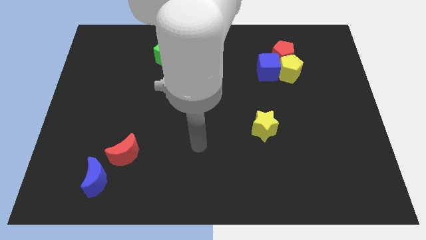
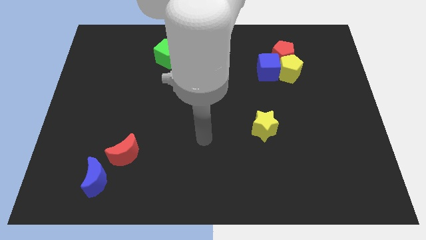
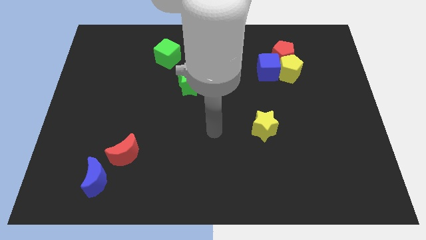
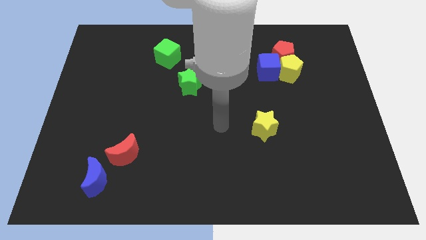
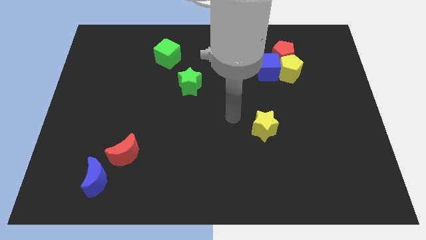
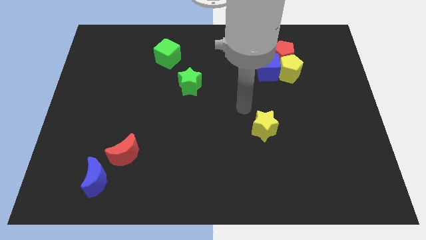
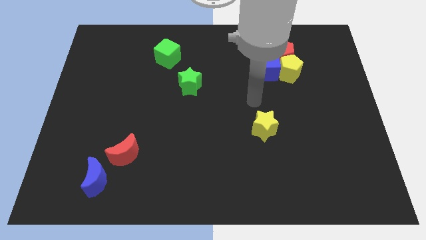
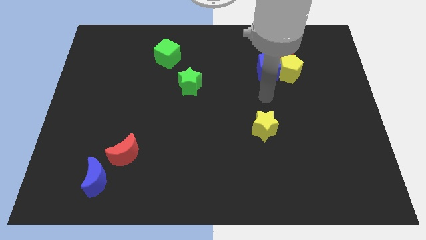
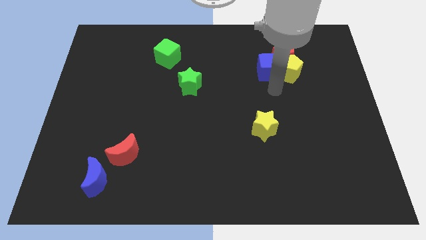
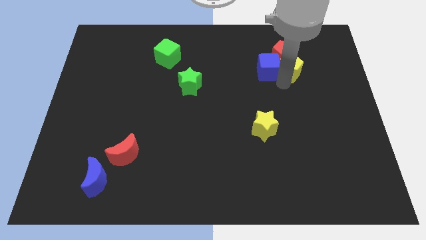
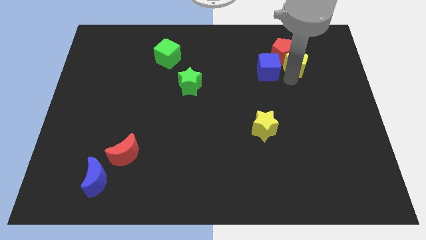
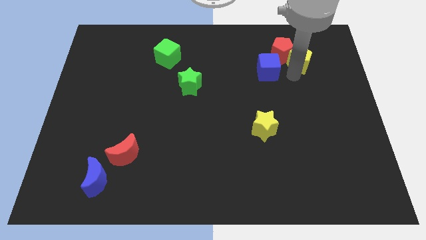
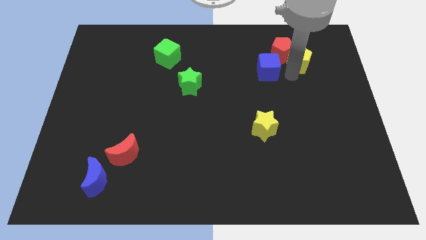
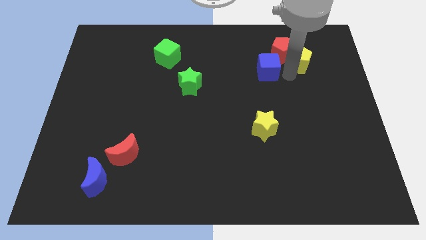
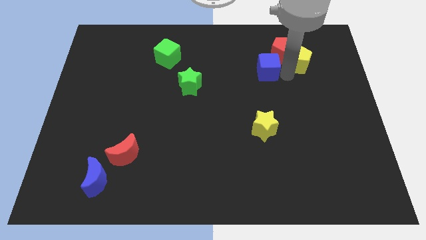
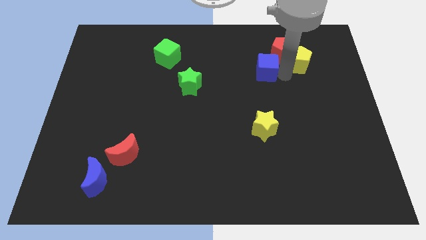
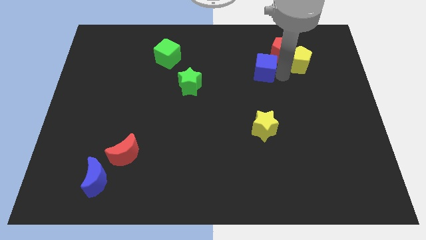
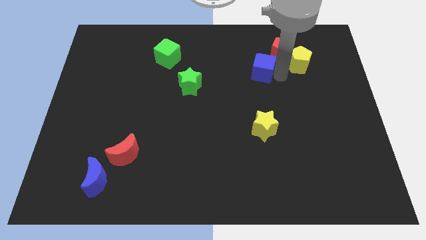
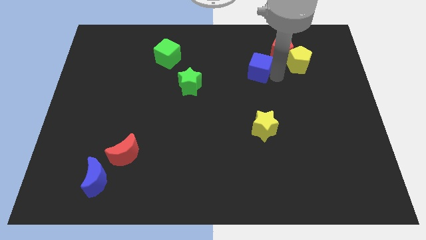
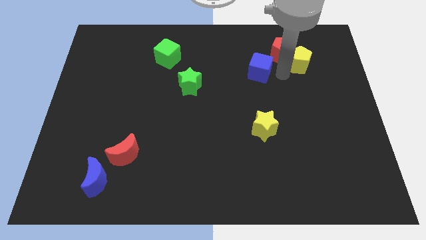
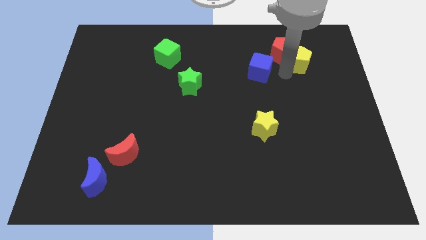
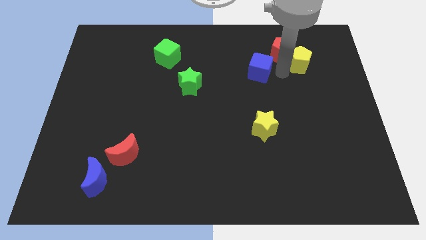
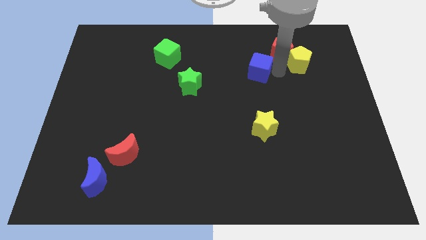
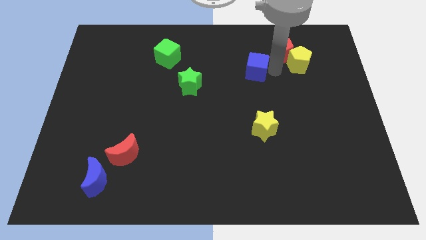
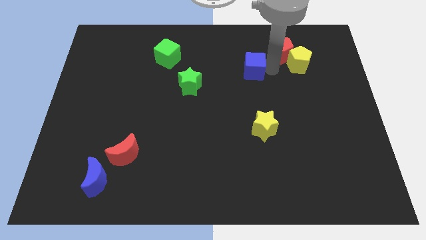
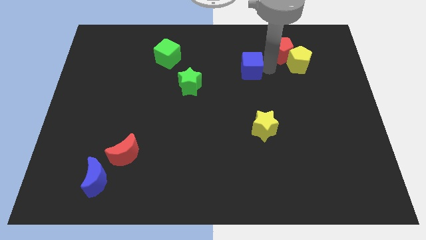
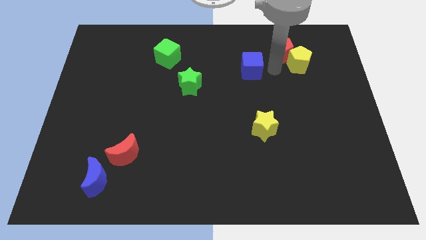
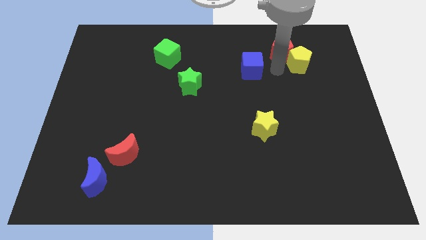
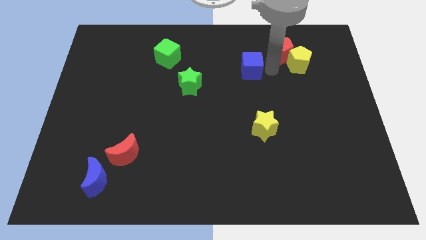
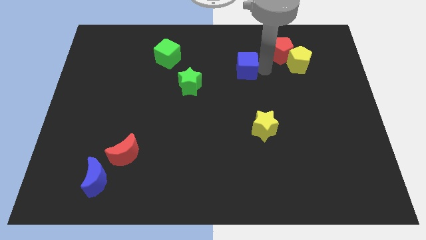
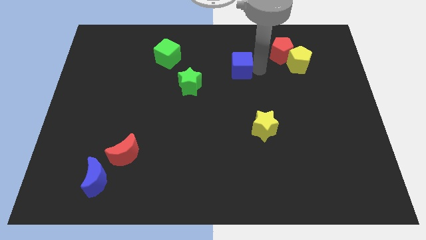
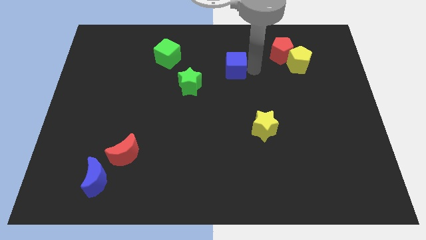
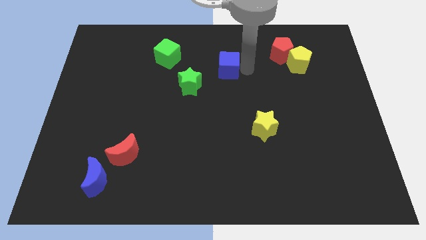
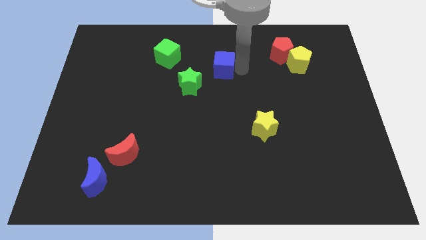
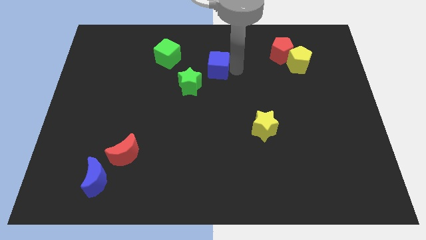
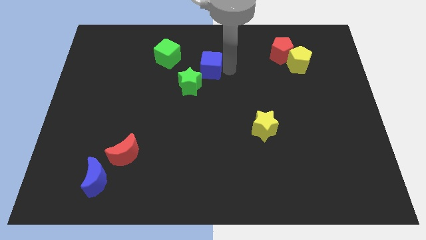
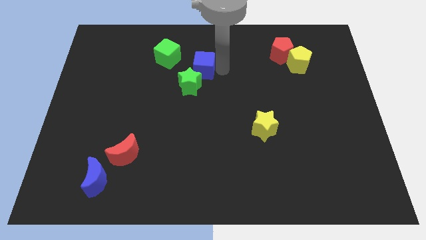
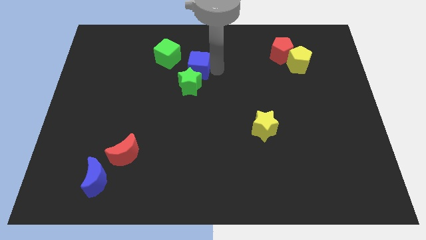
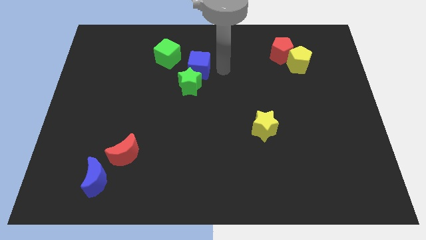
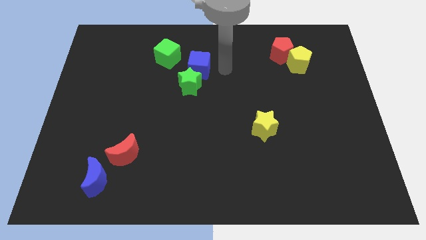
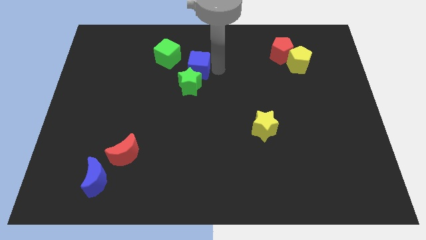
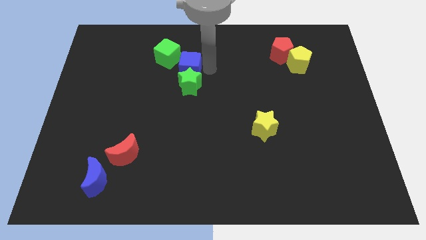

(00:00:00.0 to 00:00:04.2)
move the blue cube left

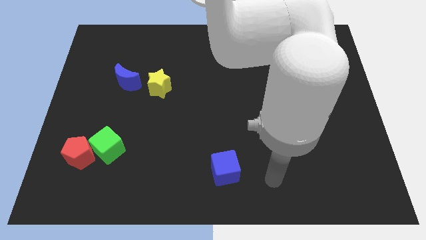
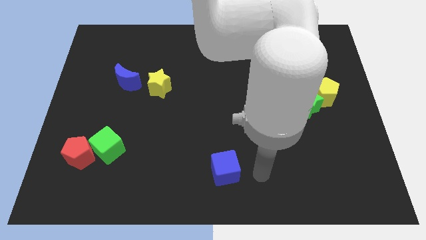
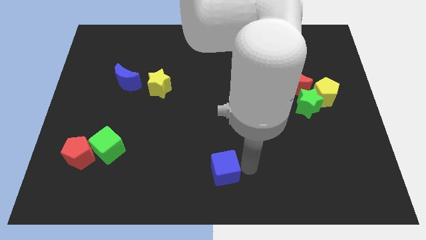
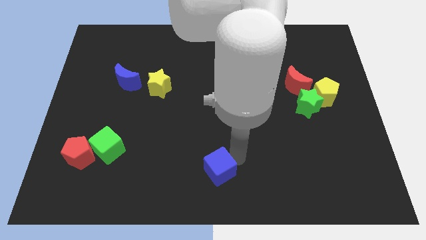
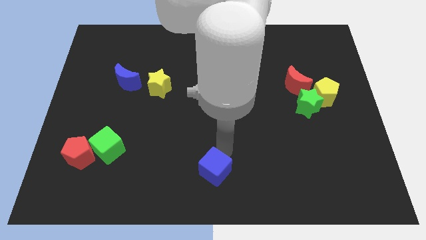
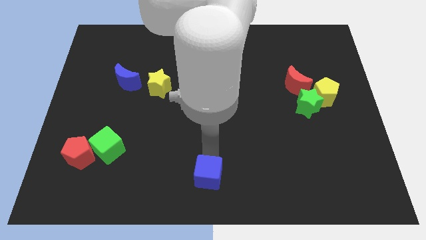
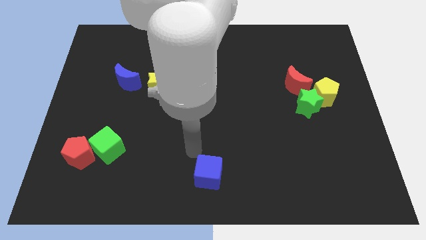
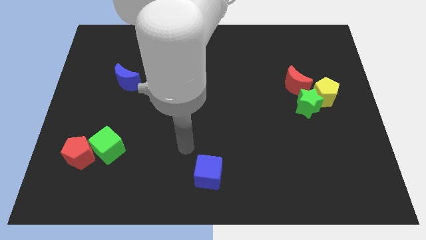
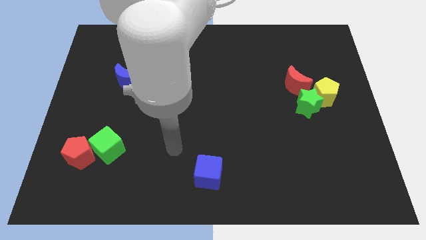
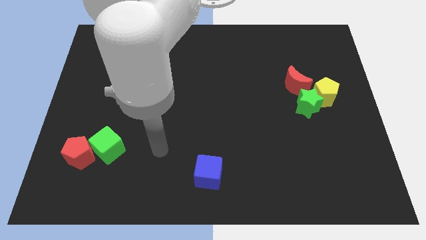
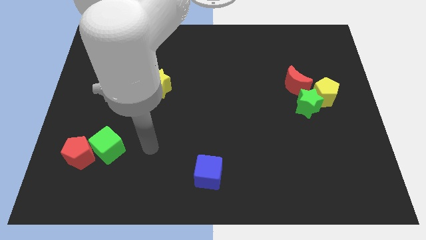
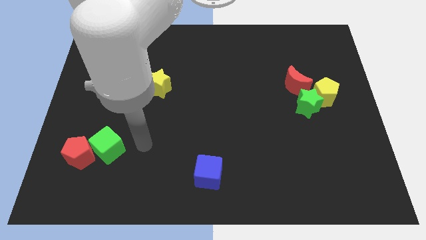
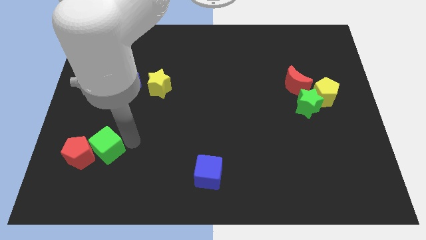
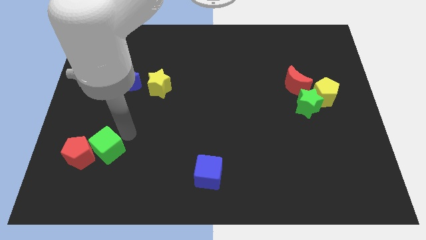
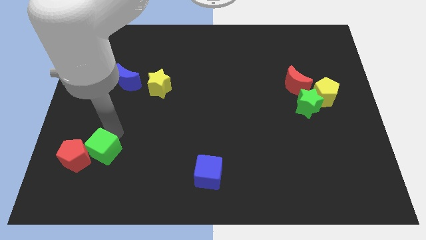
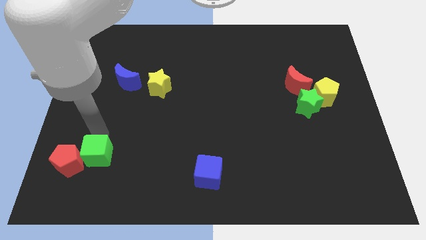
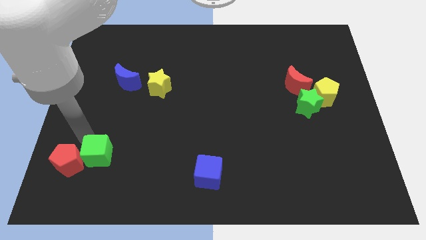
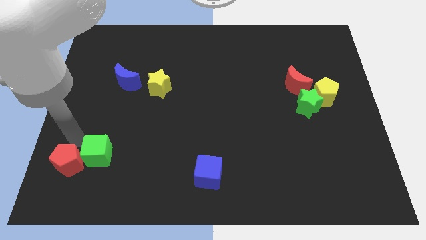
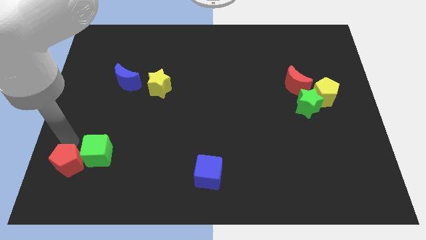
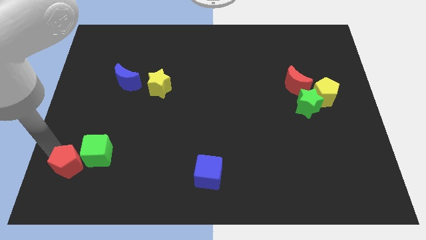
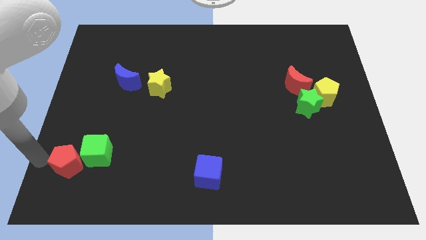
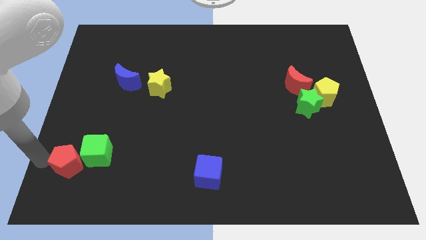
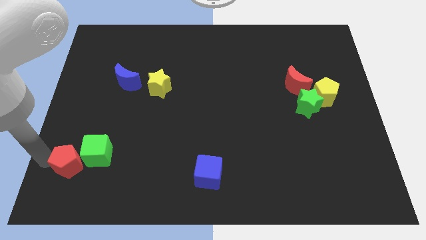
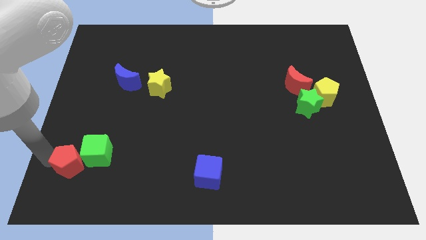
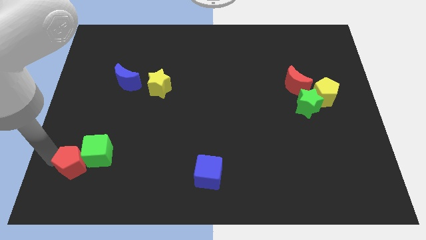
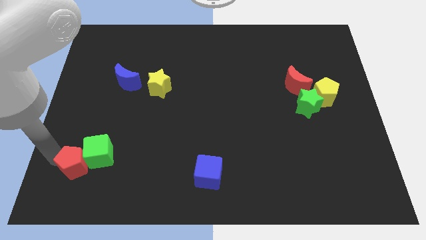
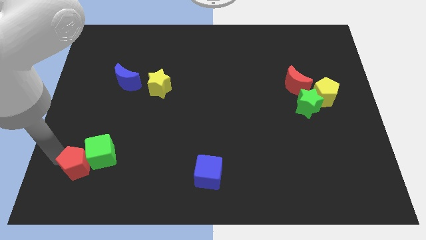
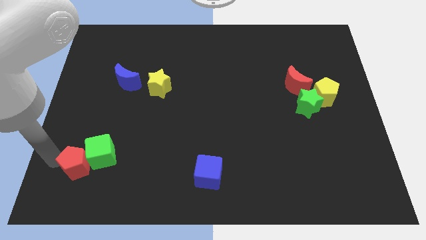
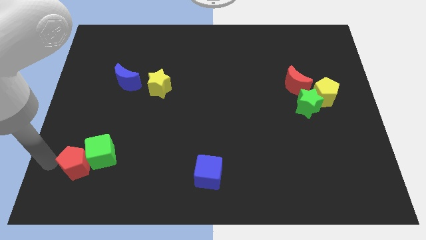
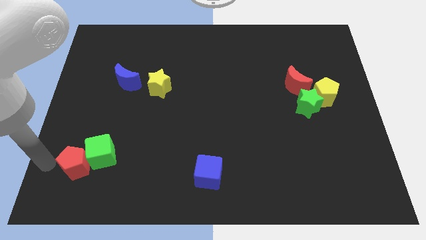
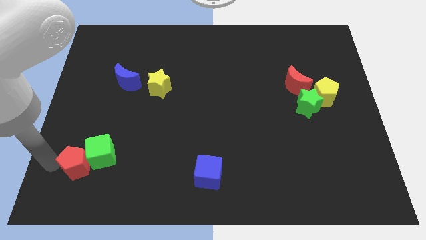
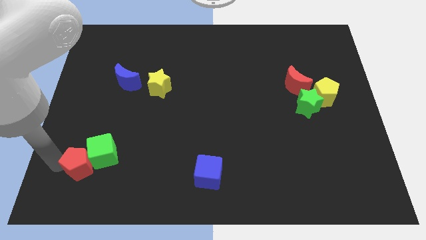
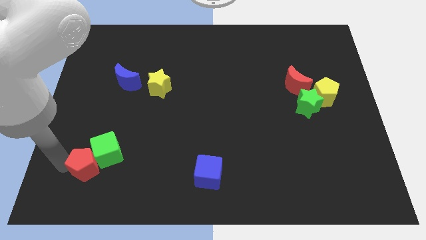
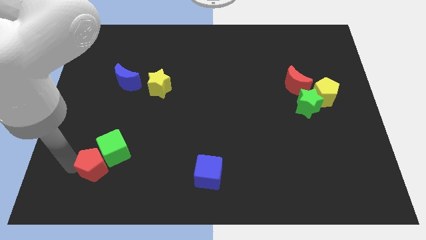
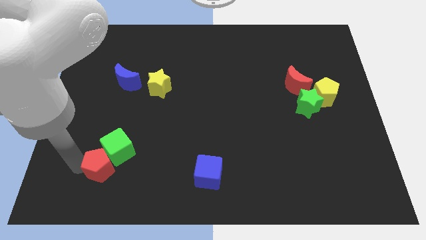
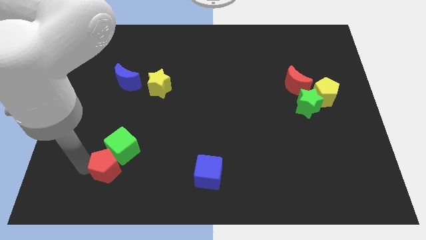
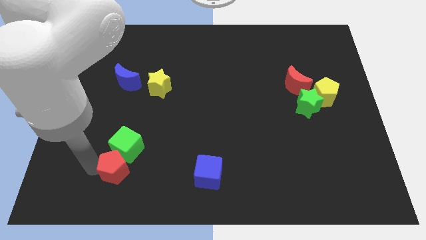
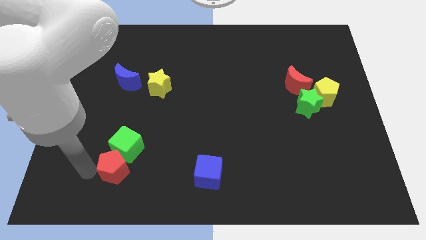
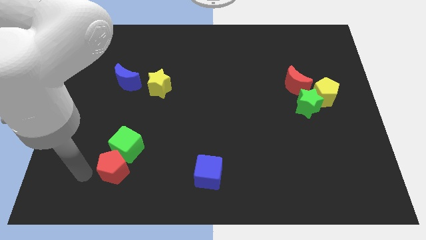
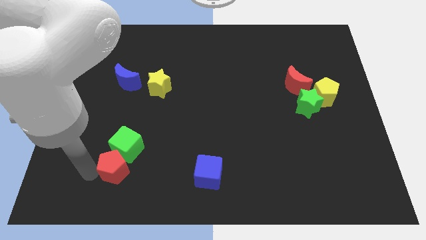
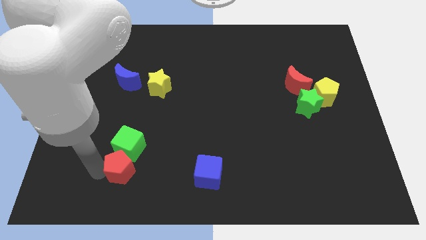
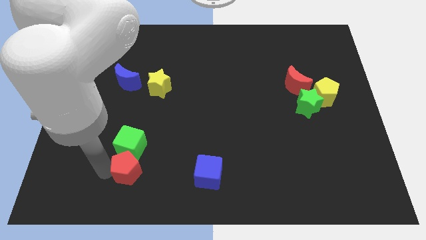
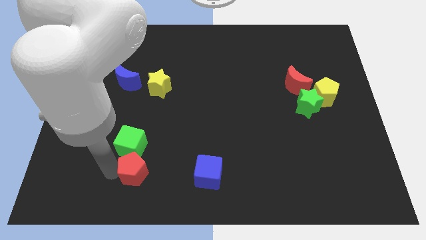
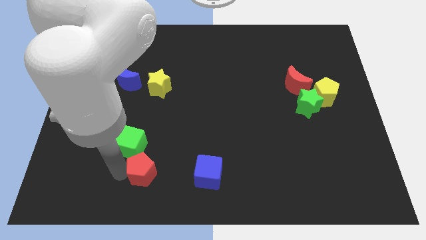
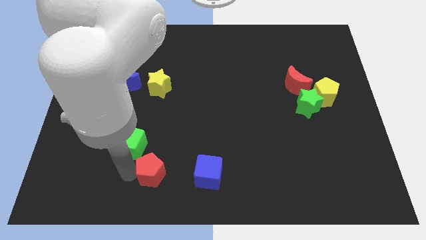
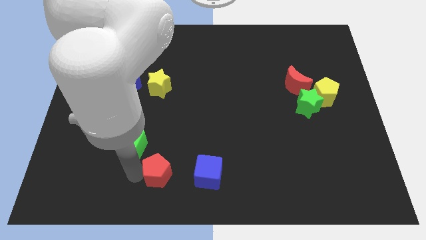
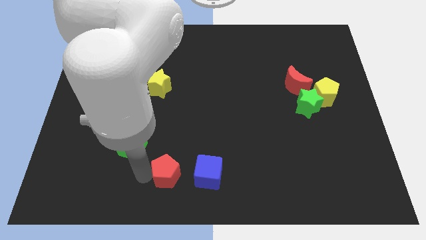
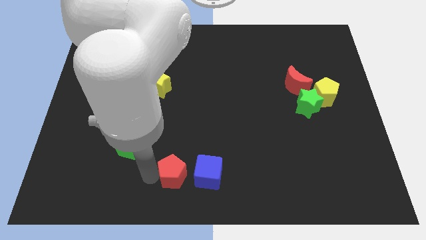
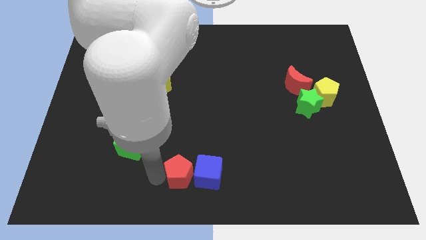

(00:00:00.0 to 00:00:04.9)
push the red pentagon right
